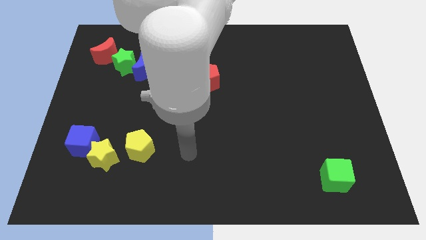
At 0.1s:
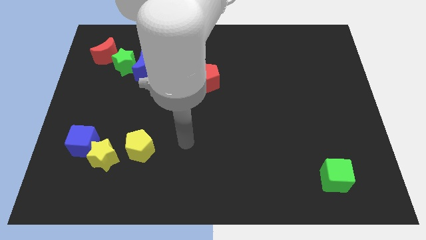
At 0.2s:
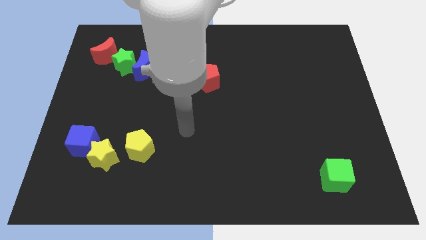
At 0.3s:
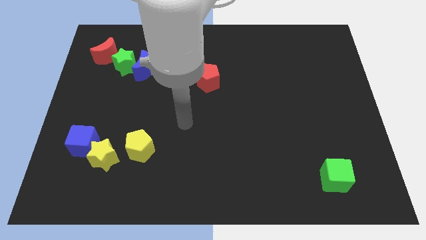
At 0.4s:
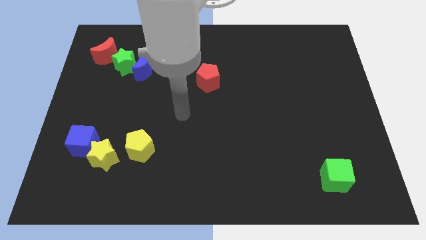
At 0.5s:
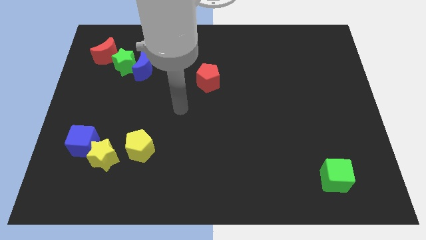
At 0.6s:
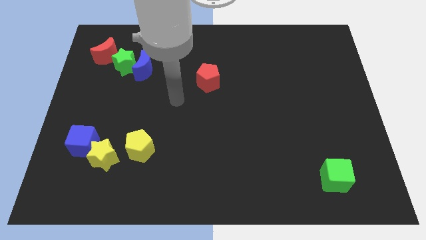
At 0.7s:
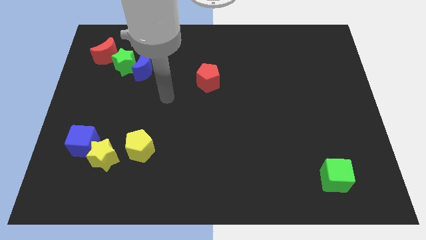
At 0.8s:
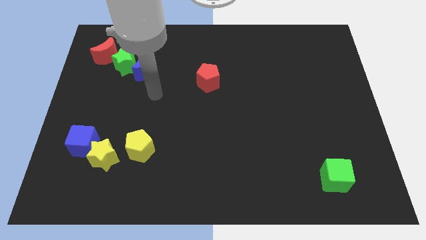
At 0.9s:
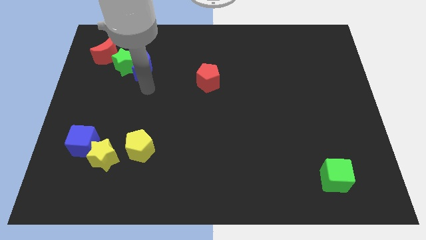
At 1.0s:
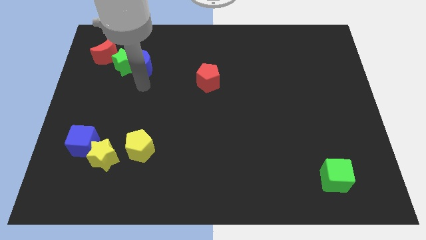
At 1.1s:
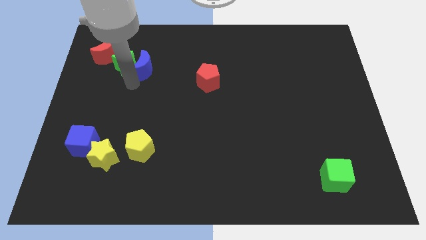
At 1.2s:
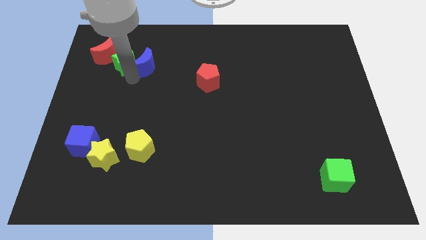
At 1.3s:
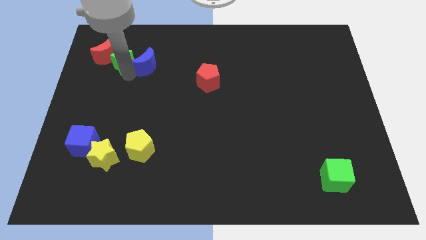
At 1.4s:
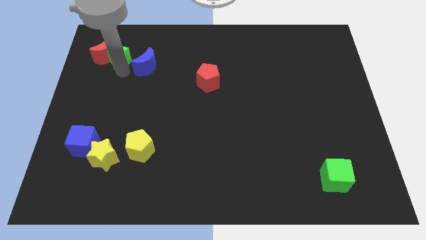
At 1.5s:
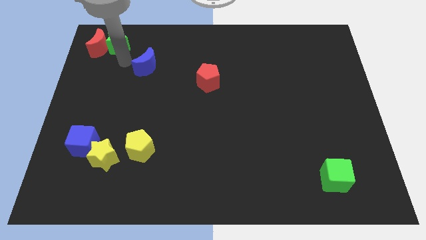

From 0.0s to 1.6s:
separate the blue moon from the green star

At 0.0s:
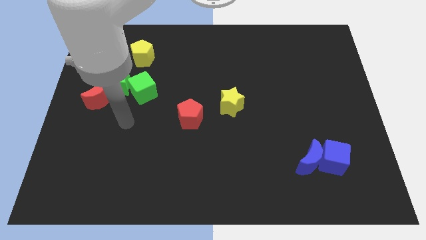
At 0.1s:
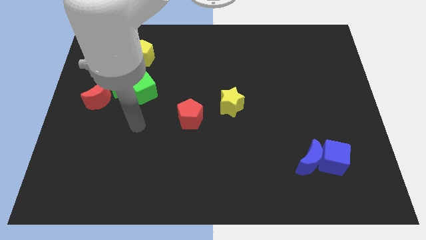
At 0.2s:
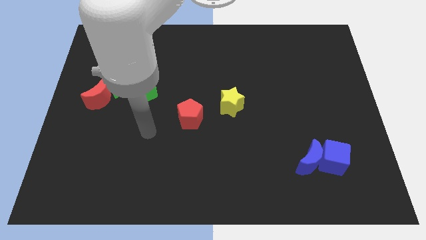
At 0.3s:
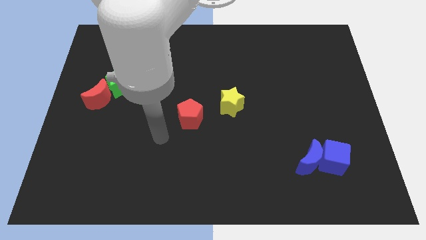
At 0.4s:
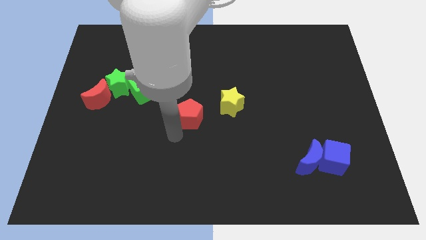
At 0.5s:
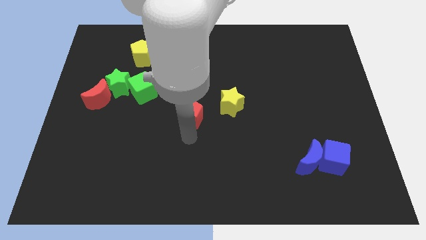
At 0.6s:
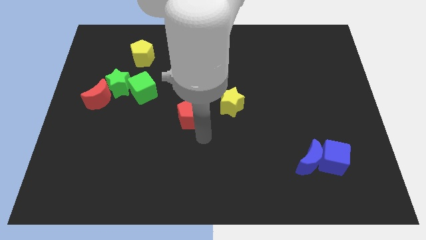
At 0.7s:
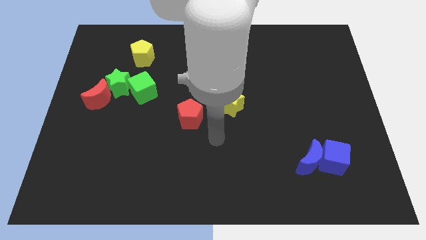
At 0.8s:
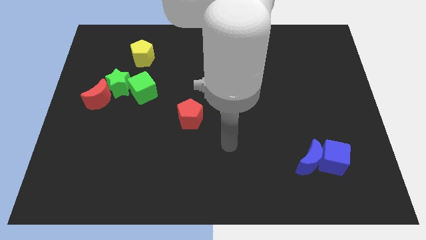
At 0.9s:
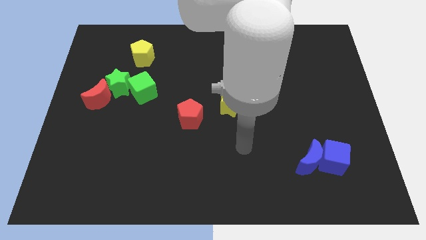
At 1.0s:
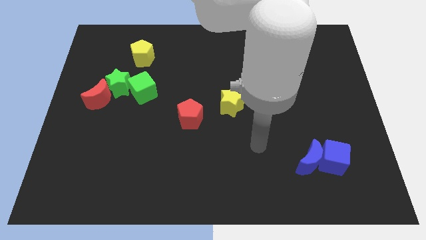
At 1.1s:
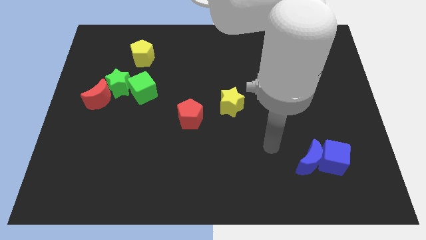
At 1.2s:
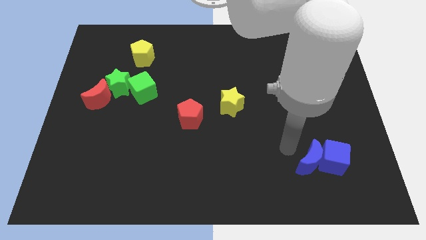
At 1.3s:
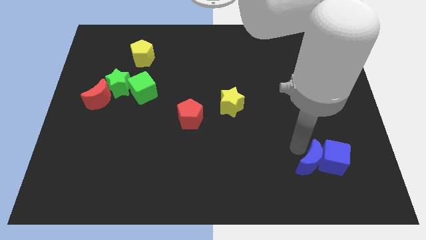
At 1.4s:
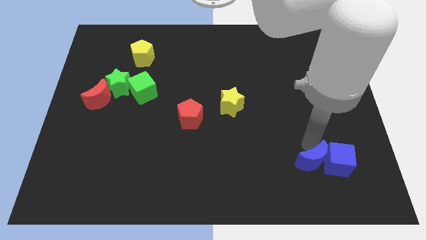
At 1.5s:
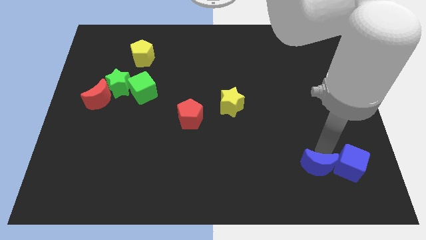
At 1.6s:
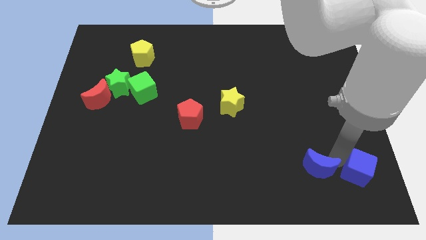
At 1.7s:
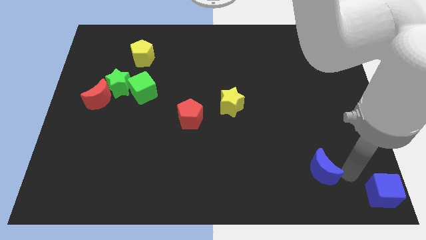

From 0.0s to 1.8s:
separate the blue moon from the blue cube

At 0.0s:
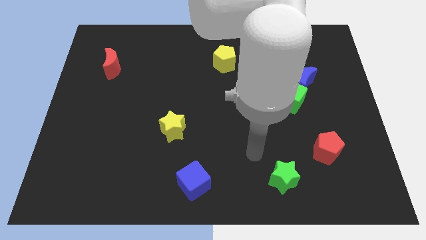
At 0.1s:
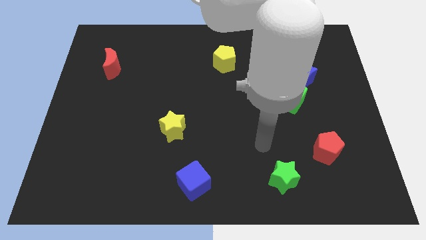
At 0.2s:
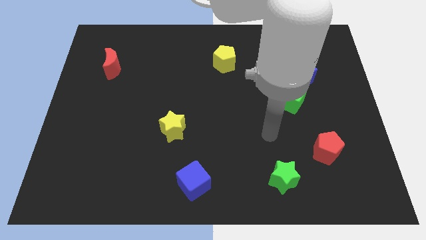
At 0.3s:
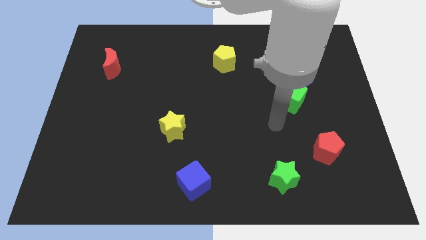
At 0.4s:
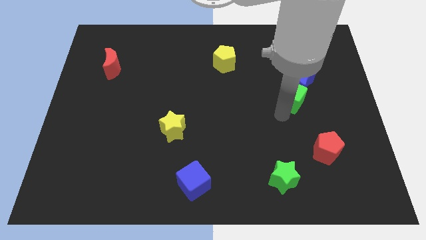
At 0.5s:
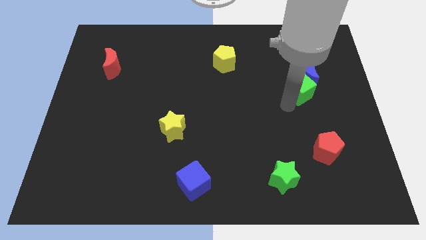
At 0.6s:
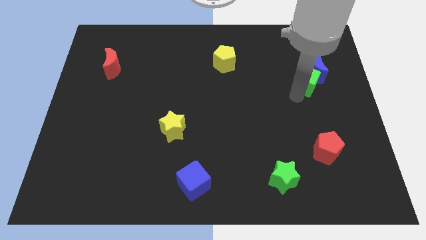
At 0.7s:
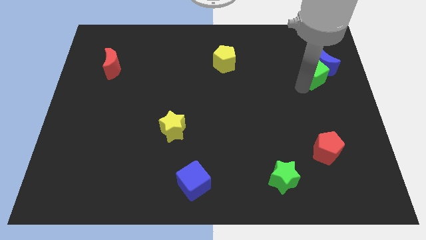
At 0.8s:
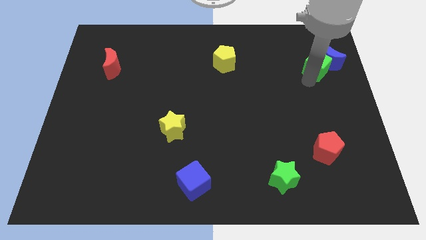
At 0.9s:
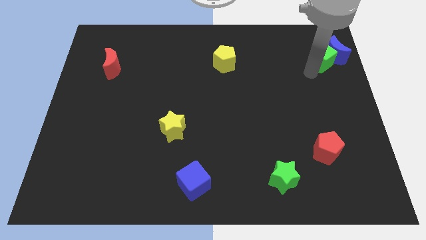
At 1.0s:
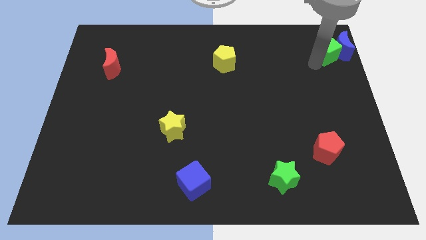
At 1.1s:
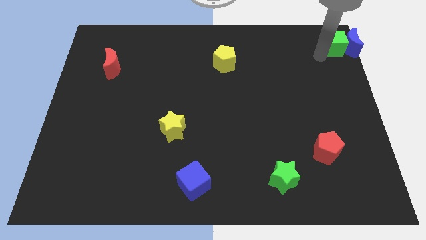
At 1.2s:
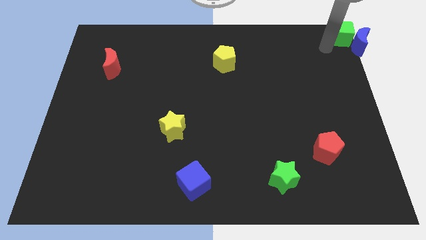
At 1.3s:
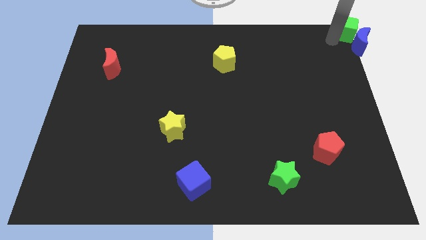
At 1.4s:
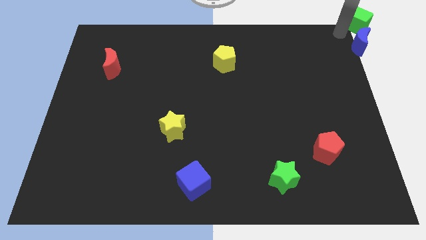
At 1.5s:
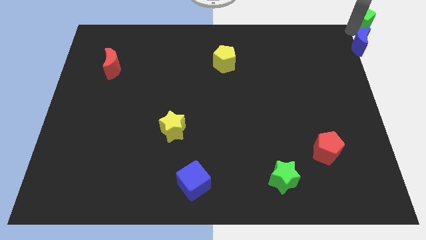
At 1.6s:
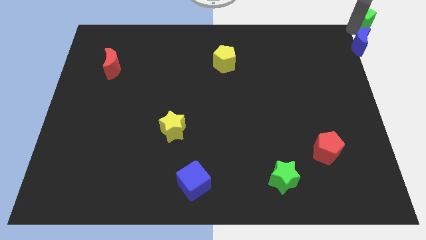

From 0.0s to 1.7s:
move the blue moon away from the green cube

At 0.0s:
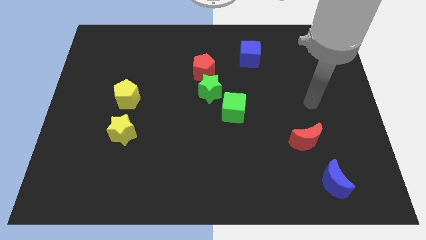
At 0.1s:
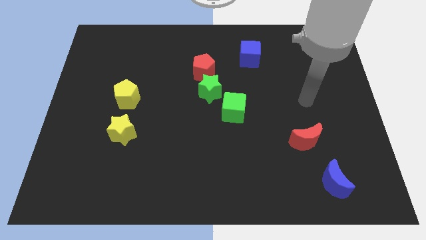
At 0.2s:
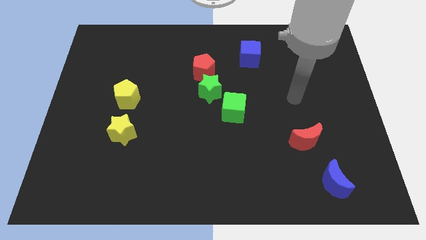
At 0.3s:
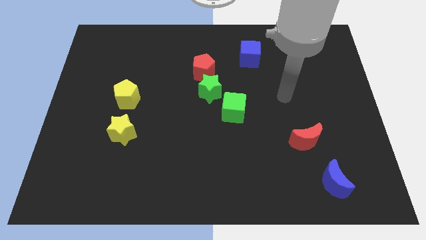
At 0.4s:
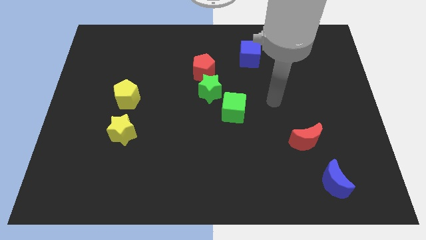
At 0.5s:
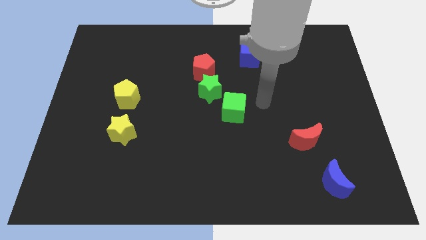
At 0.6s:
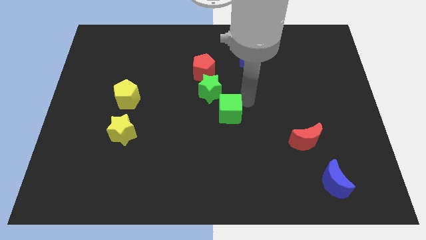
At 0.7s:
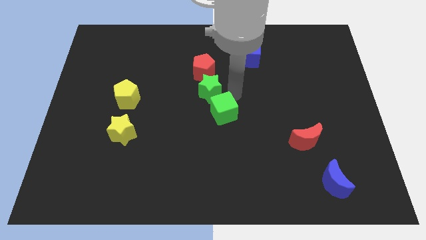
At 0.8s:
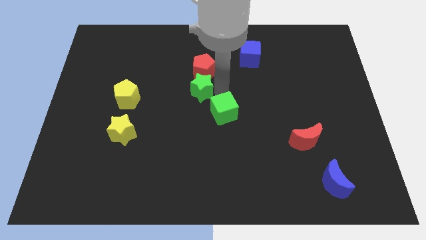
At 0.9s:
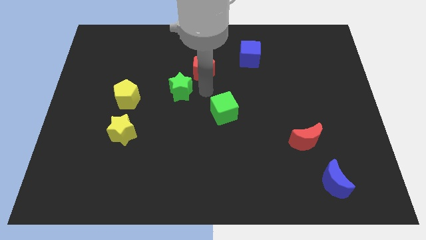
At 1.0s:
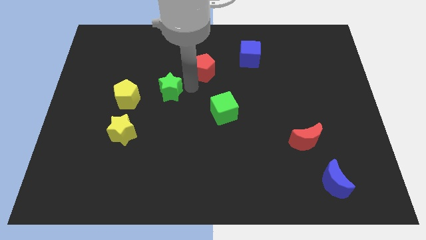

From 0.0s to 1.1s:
separate the red pentagon from the green star

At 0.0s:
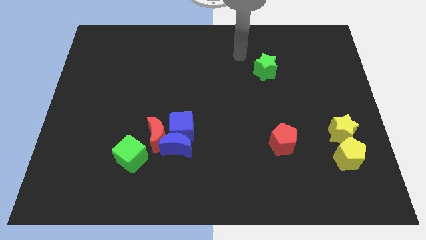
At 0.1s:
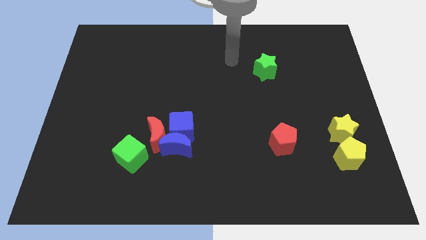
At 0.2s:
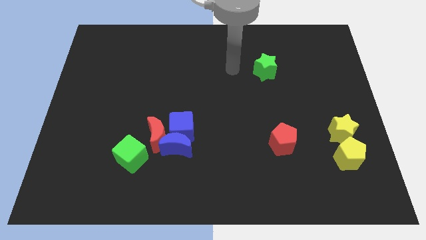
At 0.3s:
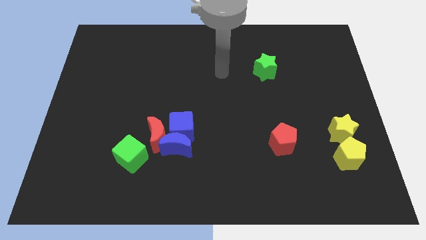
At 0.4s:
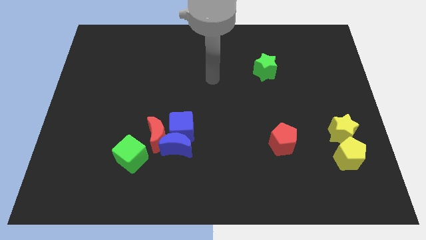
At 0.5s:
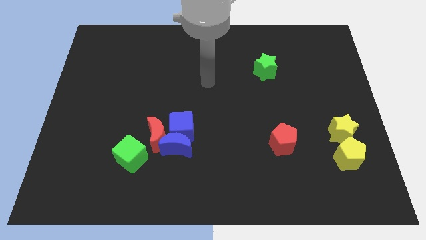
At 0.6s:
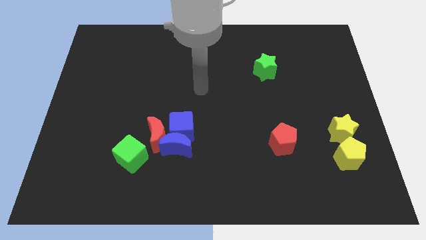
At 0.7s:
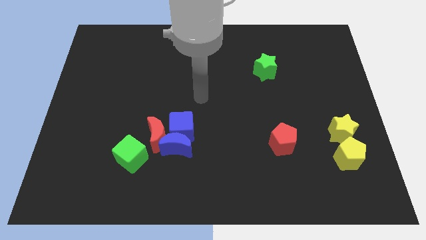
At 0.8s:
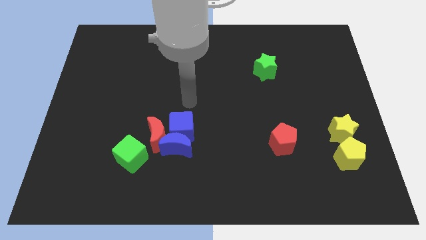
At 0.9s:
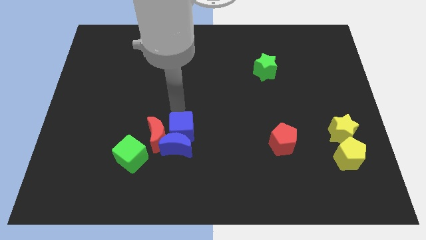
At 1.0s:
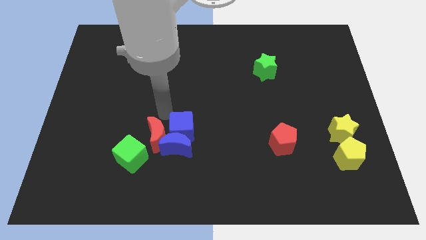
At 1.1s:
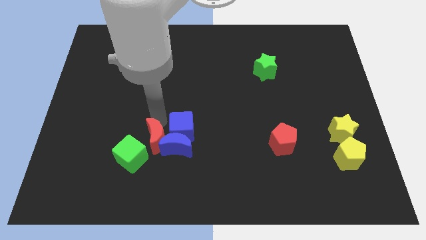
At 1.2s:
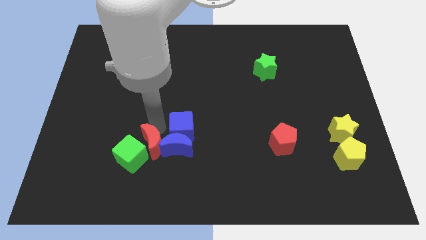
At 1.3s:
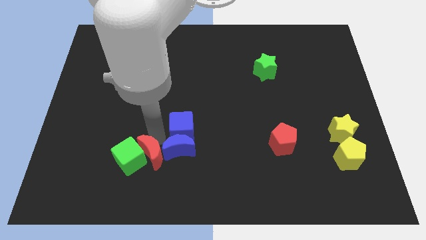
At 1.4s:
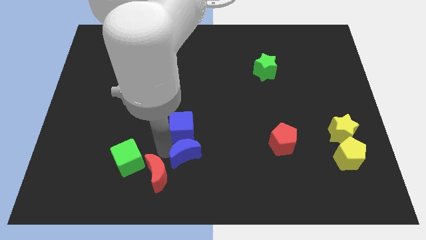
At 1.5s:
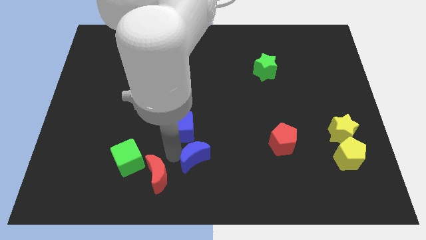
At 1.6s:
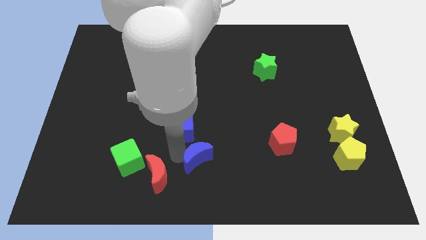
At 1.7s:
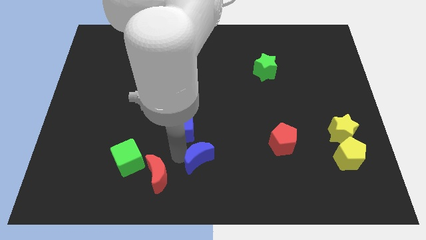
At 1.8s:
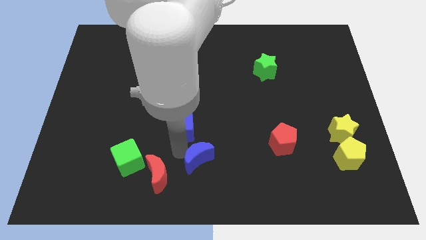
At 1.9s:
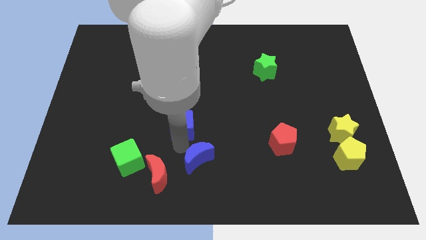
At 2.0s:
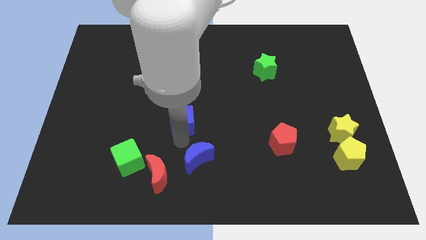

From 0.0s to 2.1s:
separate the blue cube from the blue moon and red moon

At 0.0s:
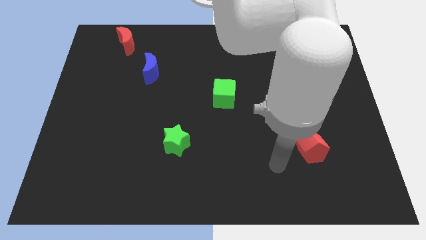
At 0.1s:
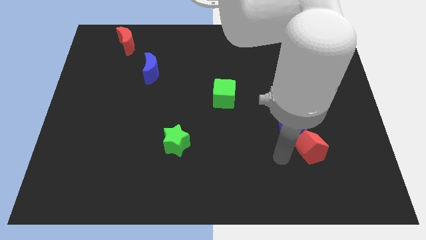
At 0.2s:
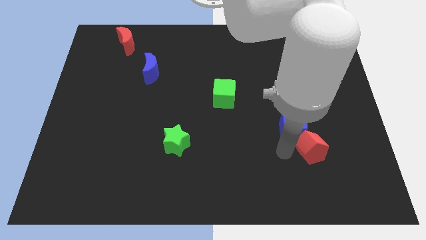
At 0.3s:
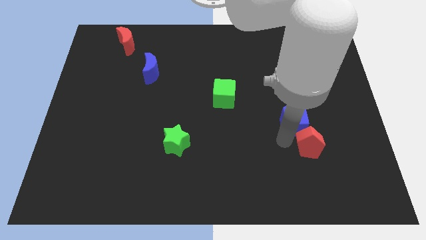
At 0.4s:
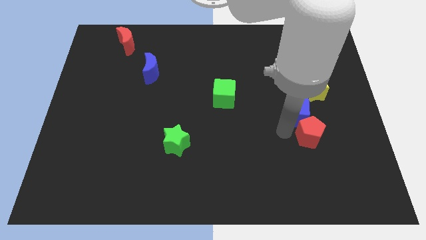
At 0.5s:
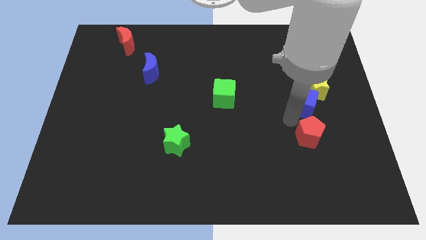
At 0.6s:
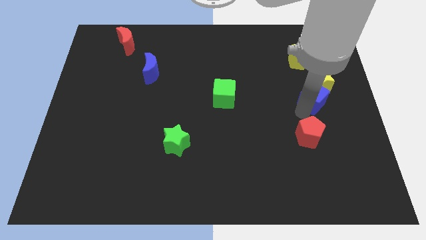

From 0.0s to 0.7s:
separate the red pentagon from the blue cube

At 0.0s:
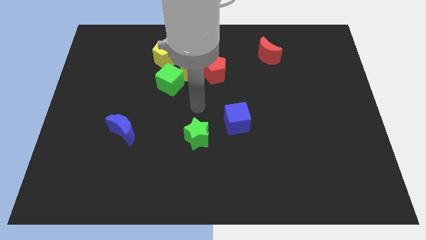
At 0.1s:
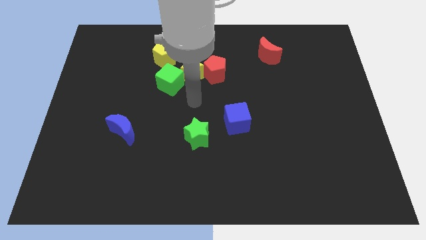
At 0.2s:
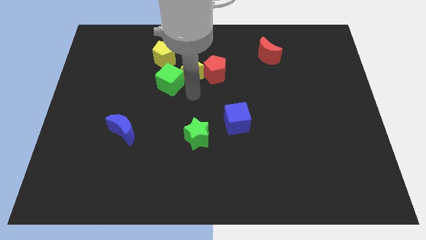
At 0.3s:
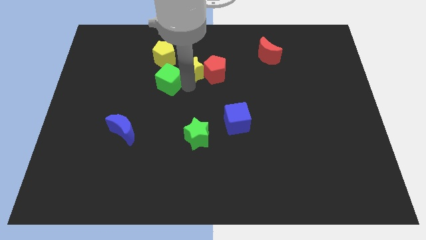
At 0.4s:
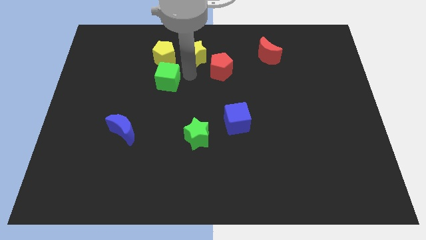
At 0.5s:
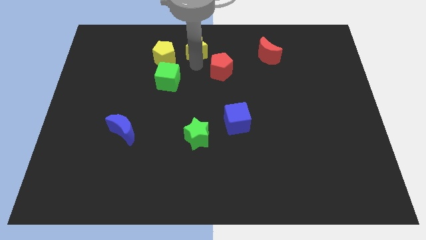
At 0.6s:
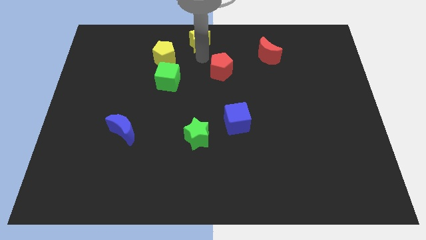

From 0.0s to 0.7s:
move the red pentagon away from the yellow star
